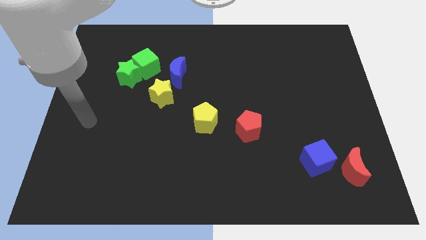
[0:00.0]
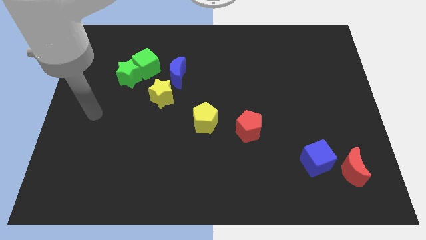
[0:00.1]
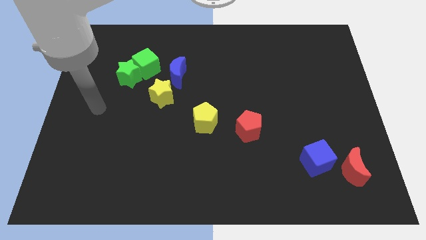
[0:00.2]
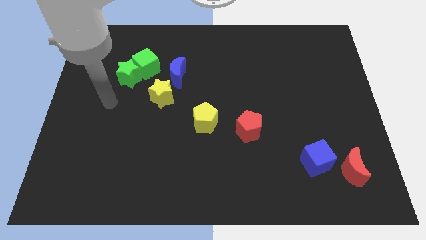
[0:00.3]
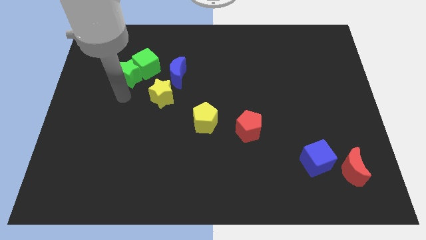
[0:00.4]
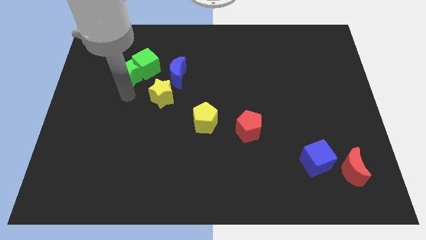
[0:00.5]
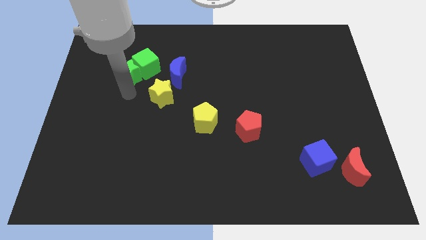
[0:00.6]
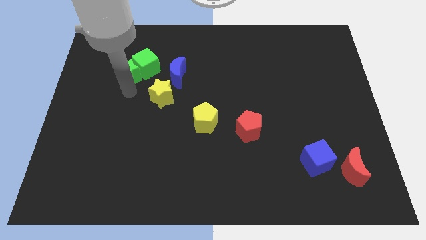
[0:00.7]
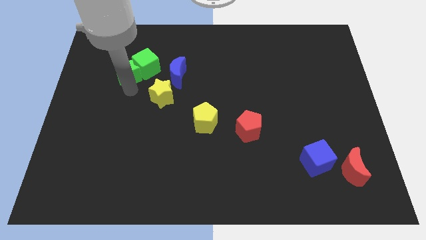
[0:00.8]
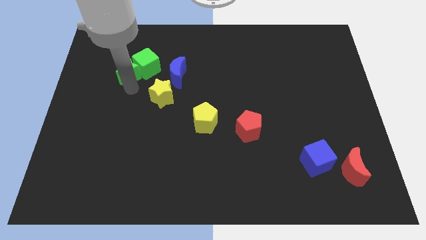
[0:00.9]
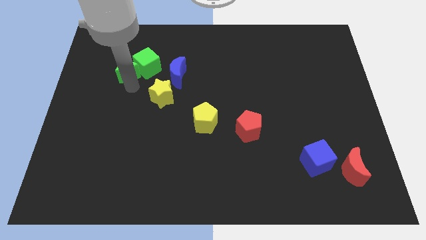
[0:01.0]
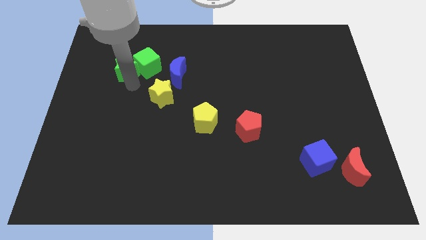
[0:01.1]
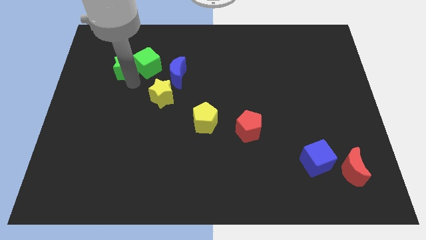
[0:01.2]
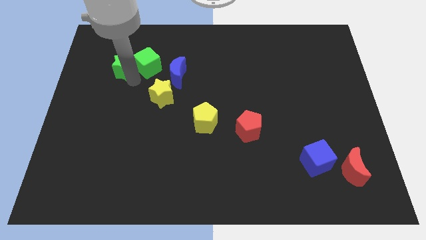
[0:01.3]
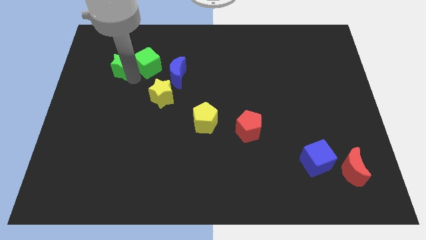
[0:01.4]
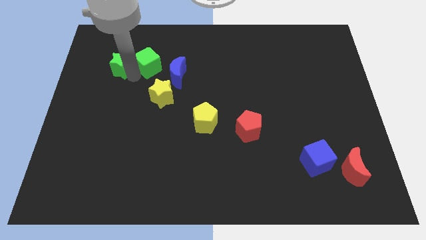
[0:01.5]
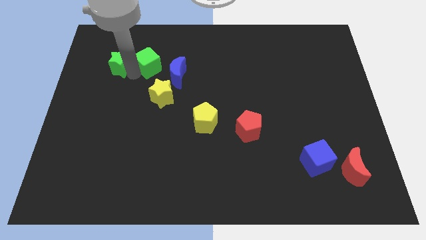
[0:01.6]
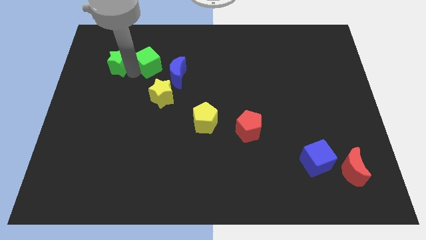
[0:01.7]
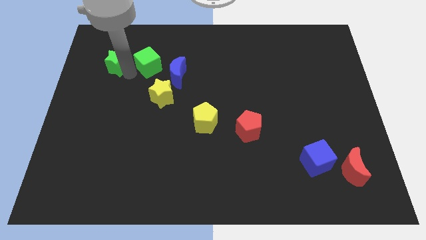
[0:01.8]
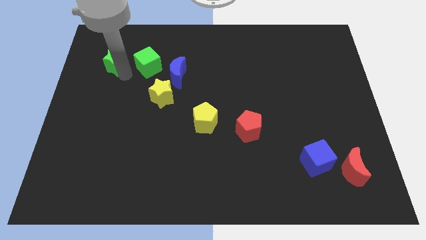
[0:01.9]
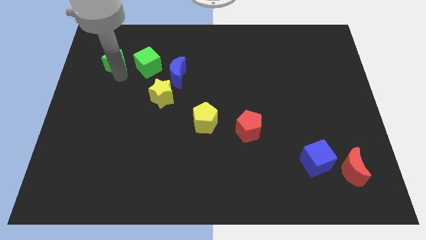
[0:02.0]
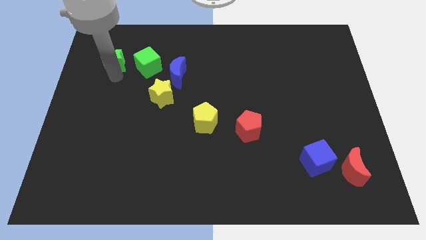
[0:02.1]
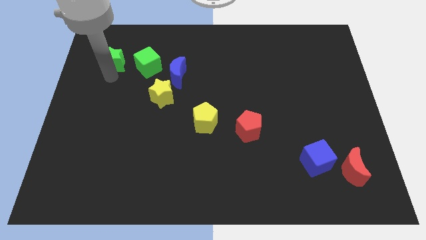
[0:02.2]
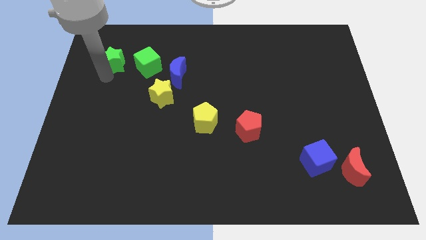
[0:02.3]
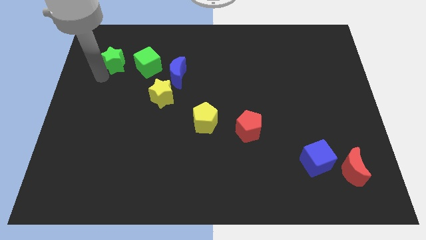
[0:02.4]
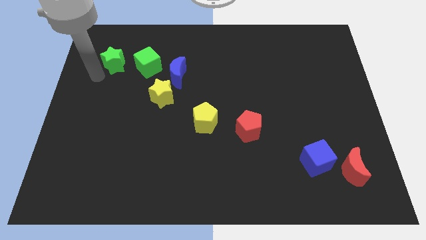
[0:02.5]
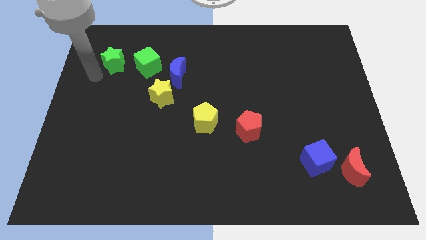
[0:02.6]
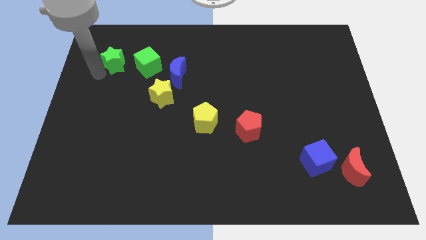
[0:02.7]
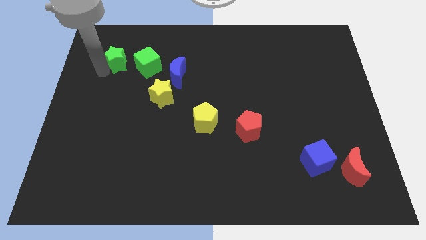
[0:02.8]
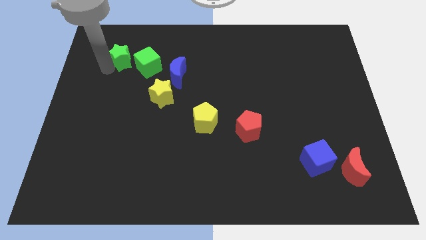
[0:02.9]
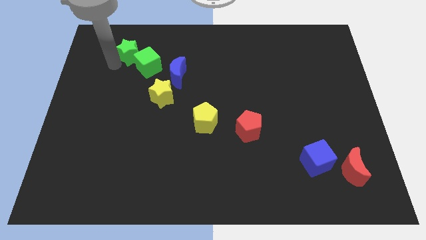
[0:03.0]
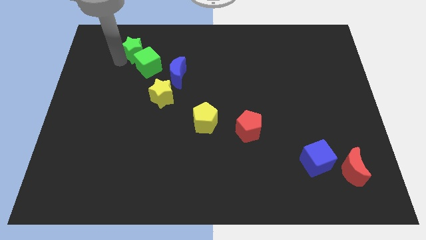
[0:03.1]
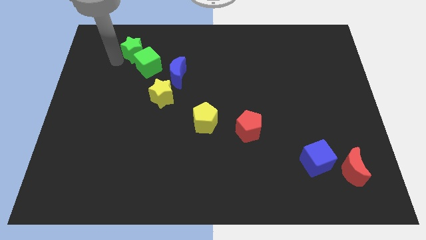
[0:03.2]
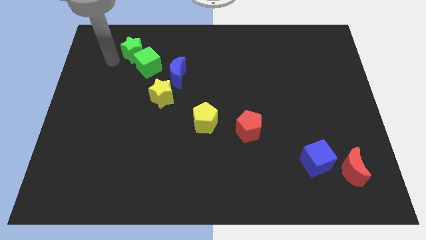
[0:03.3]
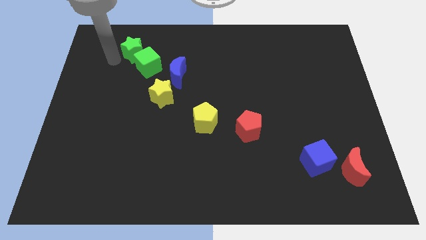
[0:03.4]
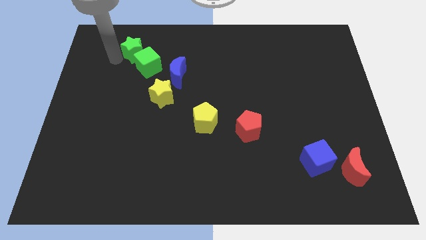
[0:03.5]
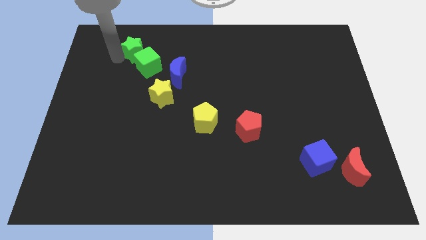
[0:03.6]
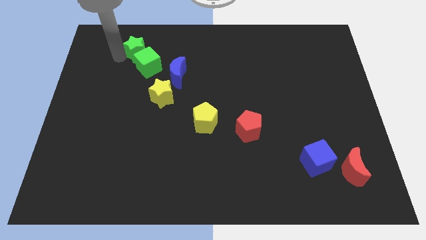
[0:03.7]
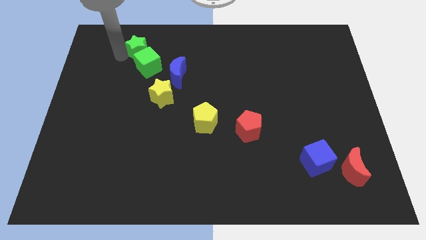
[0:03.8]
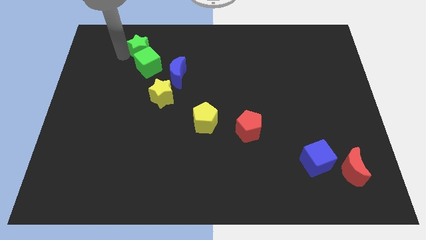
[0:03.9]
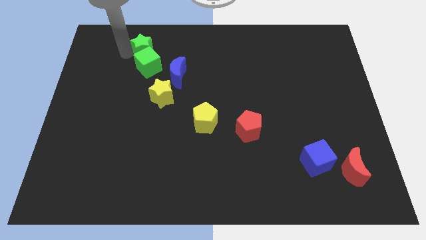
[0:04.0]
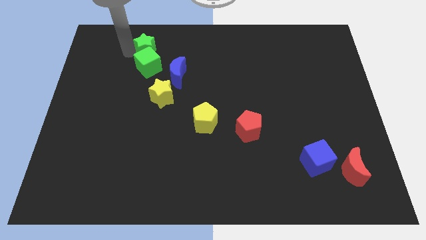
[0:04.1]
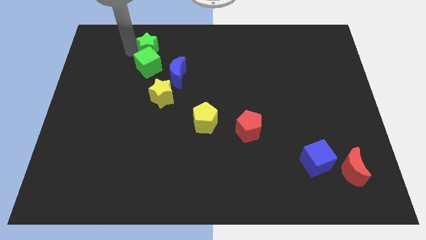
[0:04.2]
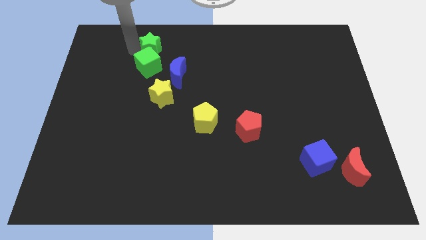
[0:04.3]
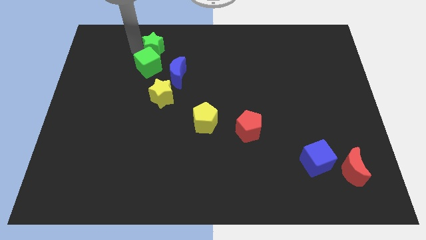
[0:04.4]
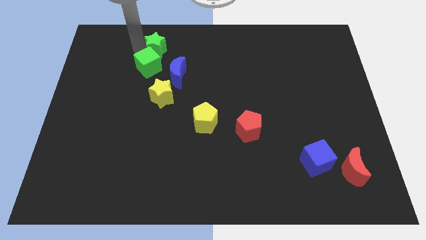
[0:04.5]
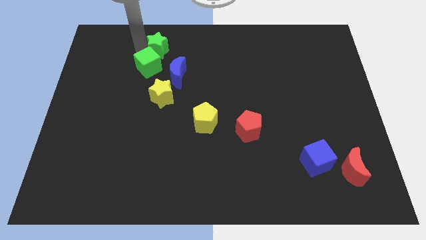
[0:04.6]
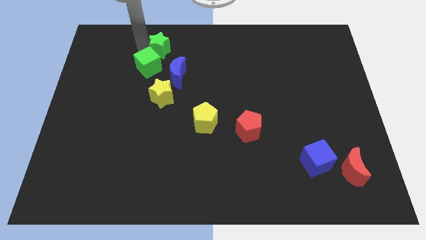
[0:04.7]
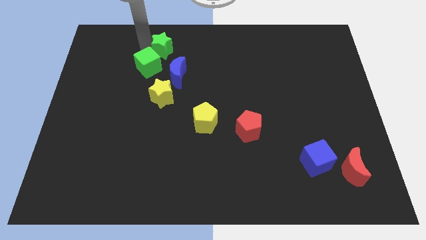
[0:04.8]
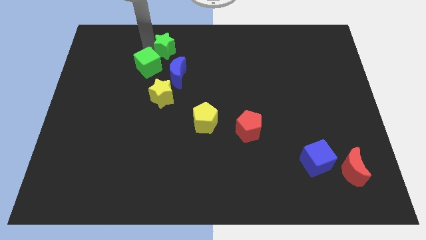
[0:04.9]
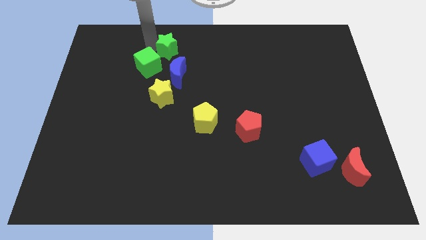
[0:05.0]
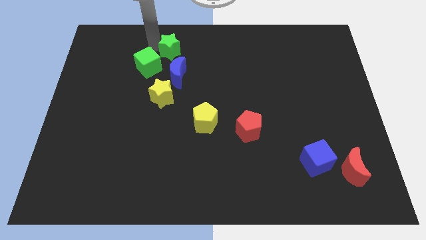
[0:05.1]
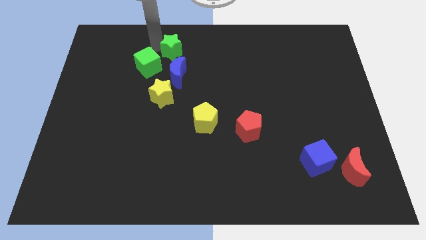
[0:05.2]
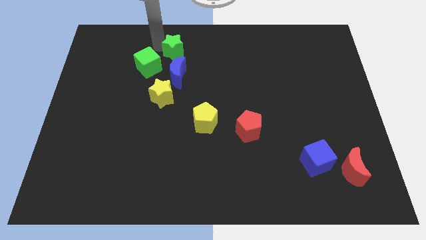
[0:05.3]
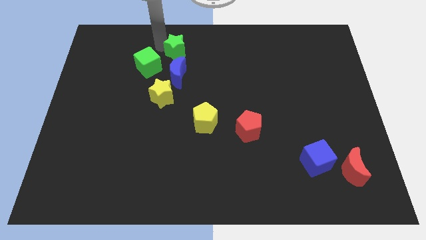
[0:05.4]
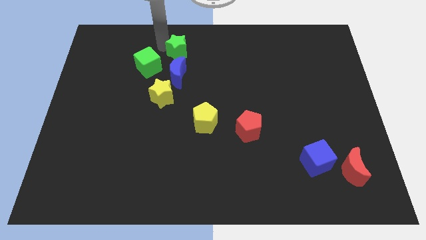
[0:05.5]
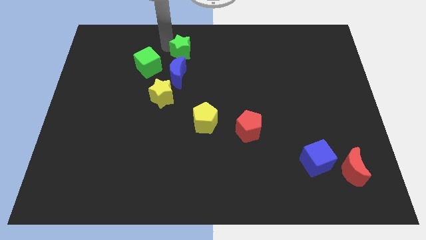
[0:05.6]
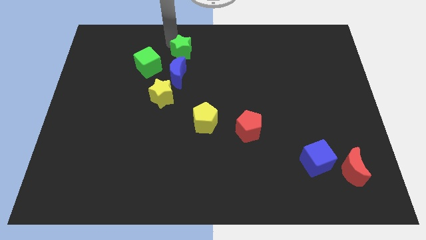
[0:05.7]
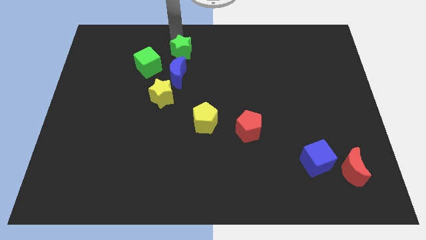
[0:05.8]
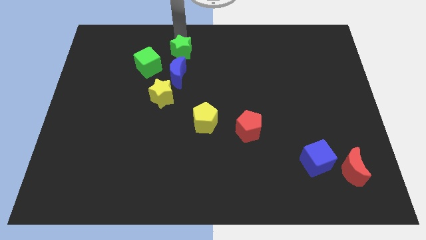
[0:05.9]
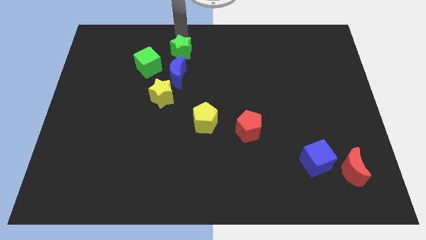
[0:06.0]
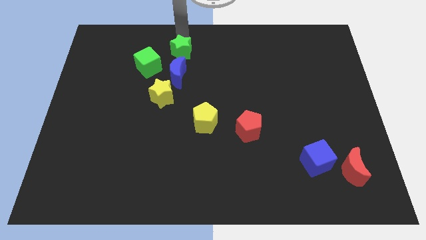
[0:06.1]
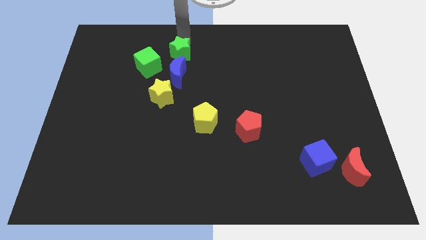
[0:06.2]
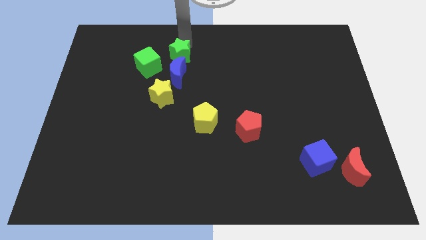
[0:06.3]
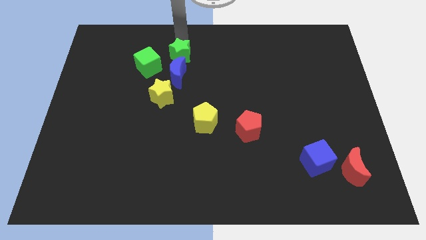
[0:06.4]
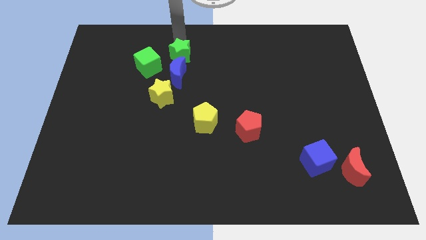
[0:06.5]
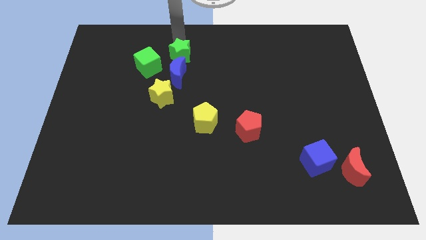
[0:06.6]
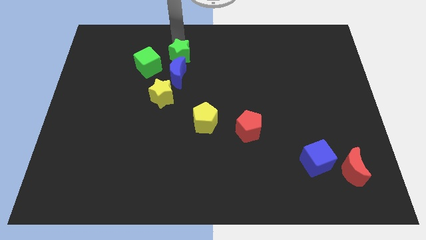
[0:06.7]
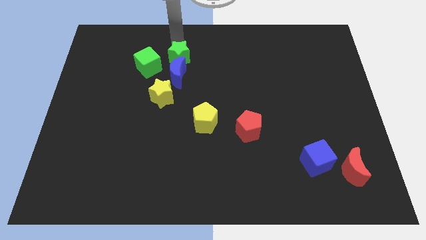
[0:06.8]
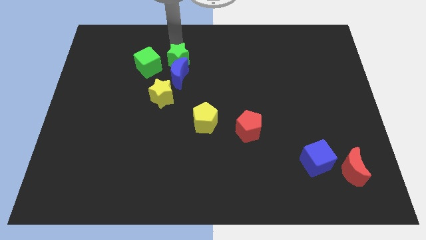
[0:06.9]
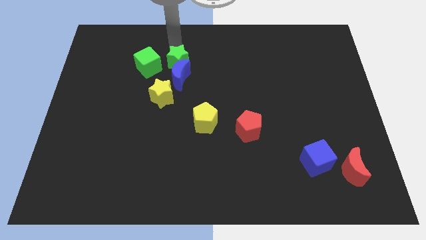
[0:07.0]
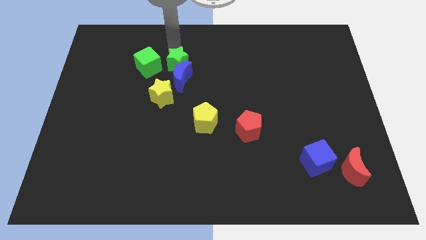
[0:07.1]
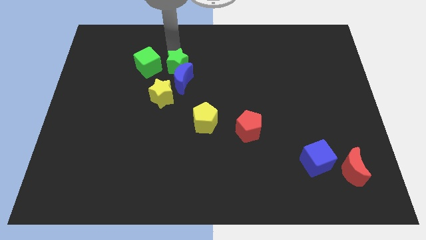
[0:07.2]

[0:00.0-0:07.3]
push the green star diagonally up and to the right of the yellow star
